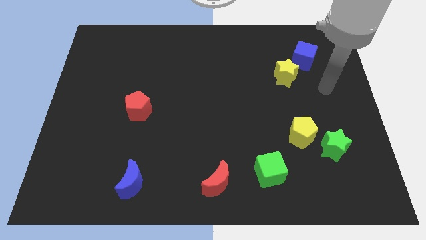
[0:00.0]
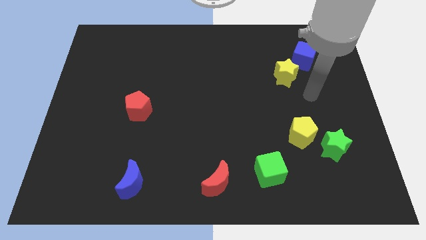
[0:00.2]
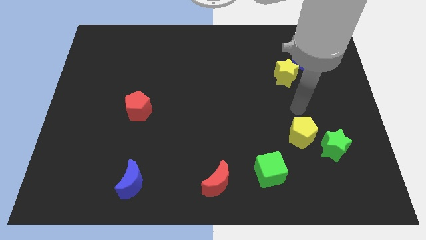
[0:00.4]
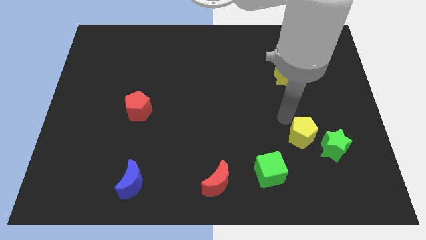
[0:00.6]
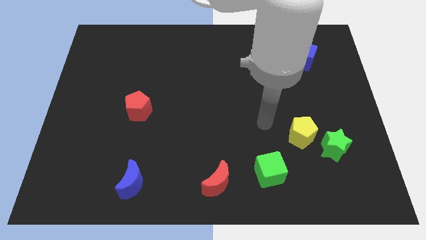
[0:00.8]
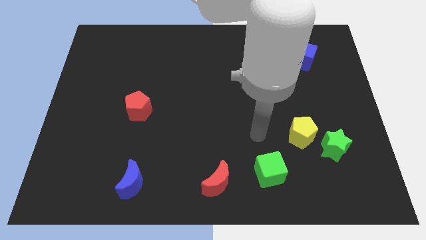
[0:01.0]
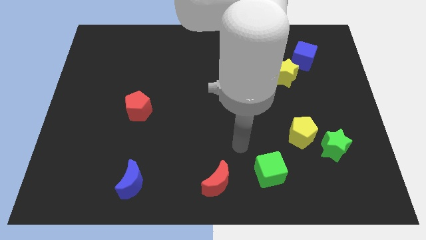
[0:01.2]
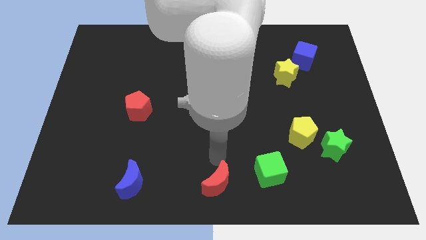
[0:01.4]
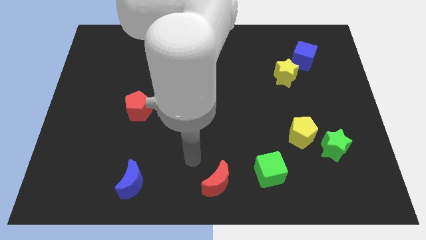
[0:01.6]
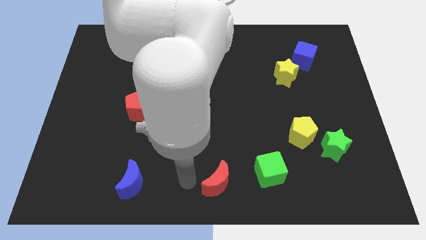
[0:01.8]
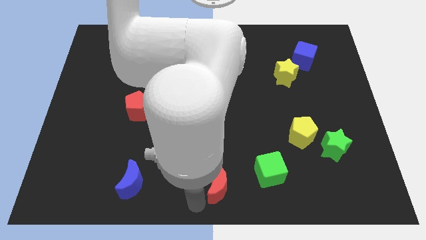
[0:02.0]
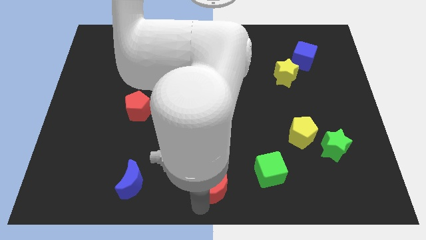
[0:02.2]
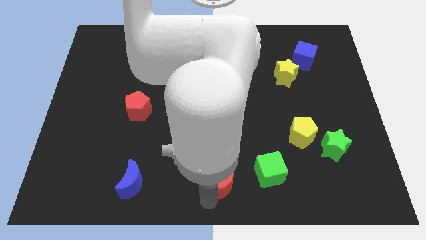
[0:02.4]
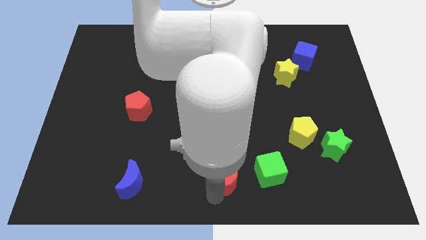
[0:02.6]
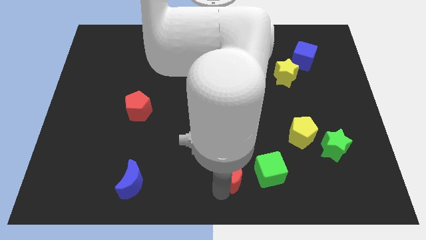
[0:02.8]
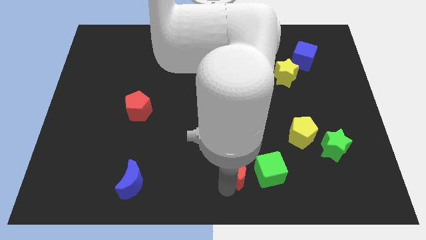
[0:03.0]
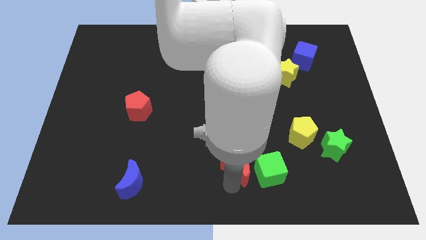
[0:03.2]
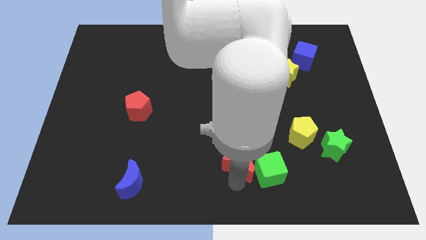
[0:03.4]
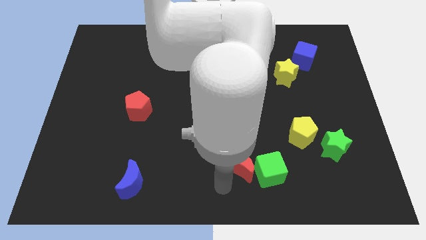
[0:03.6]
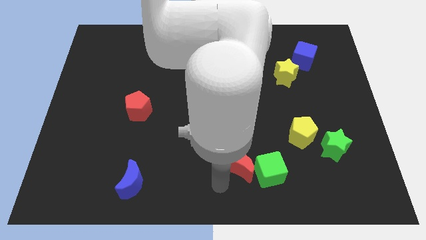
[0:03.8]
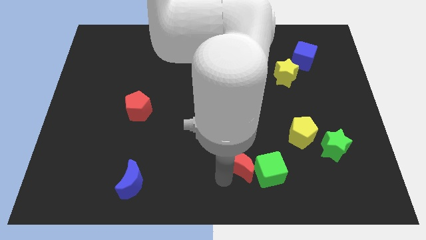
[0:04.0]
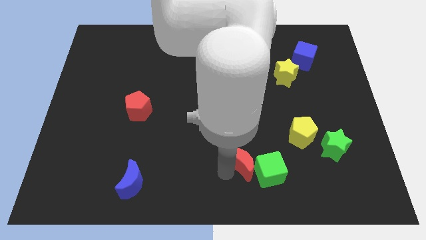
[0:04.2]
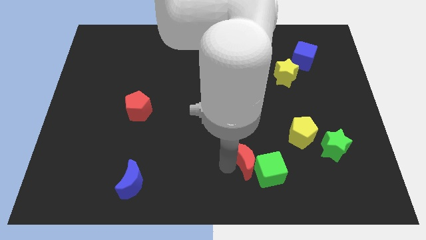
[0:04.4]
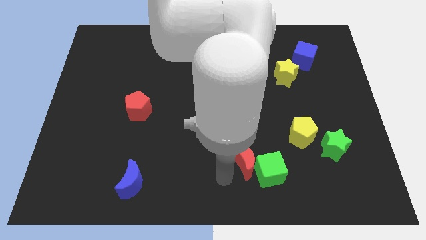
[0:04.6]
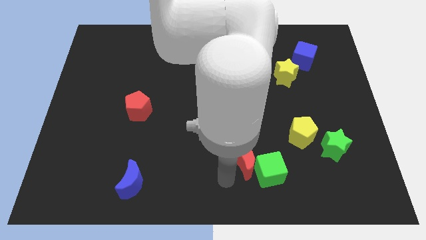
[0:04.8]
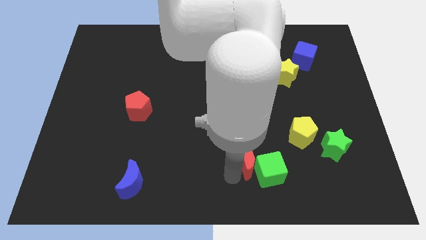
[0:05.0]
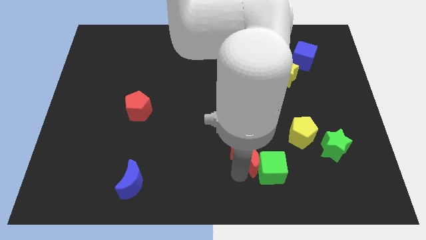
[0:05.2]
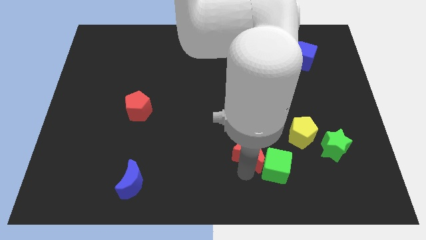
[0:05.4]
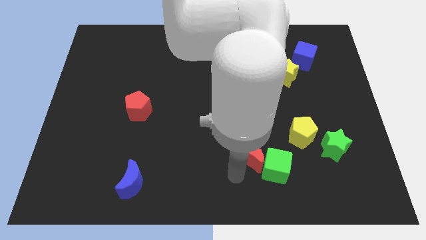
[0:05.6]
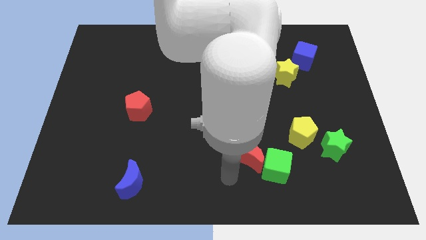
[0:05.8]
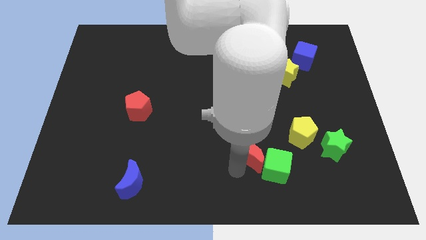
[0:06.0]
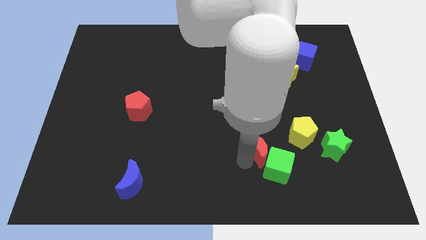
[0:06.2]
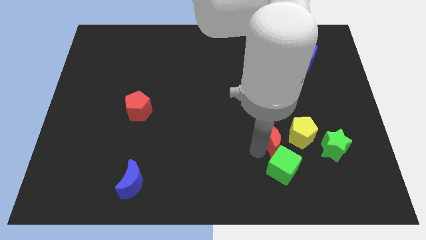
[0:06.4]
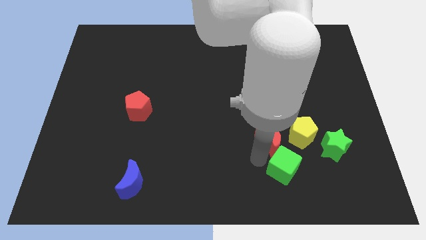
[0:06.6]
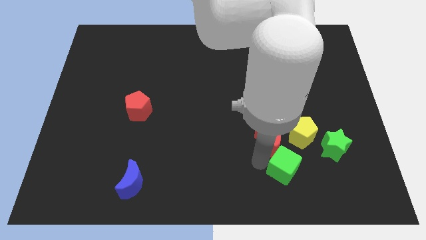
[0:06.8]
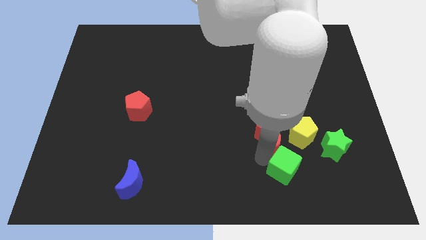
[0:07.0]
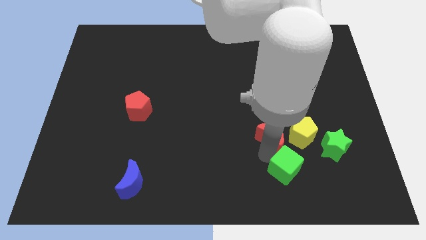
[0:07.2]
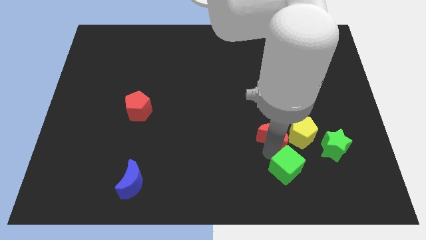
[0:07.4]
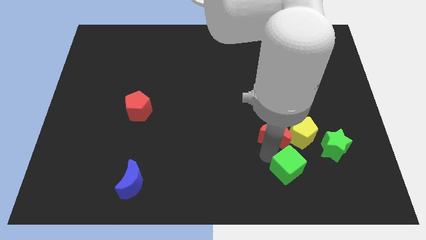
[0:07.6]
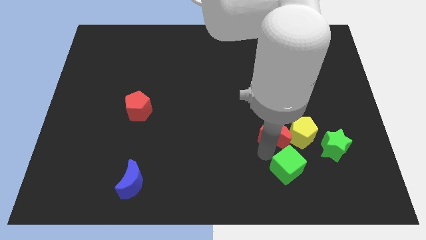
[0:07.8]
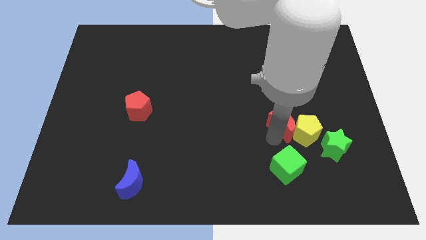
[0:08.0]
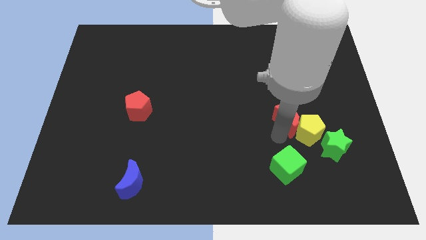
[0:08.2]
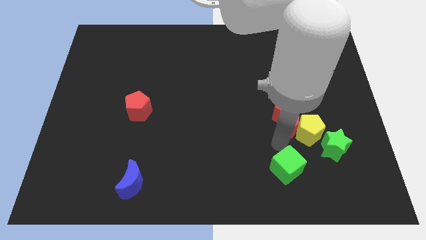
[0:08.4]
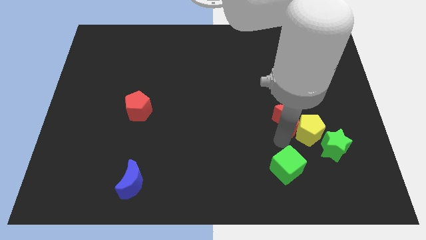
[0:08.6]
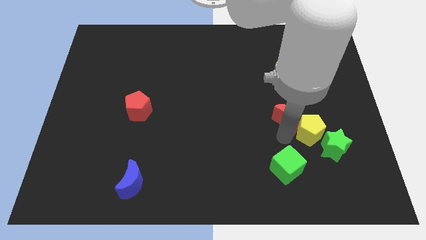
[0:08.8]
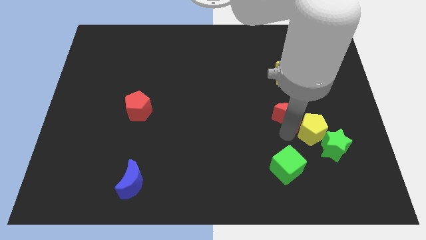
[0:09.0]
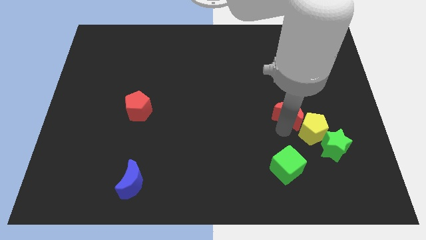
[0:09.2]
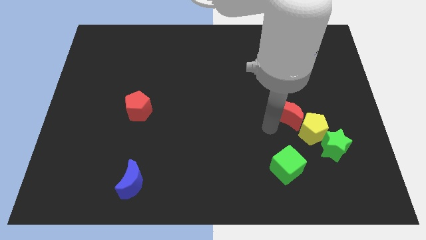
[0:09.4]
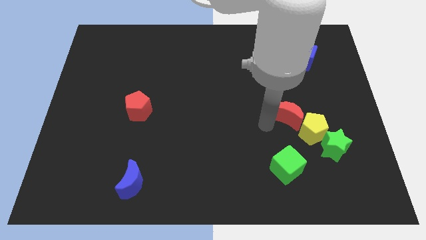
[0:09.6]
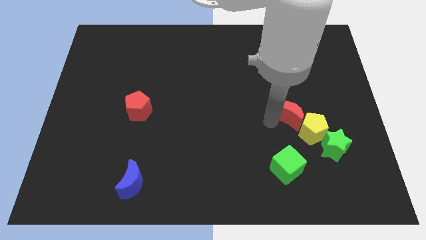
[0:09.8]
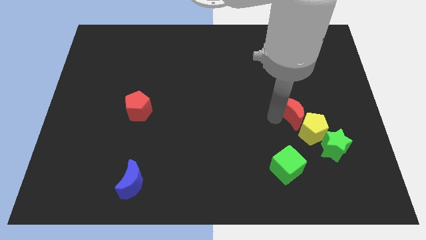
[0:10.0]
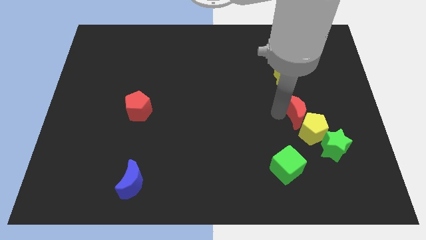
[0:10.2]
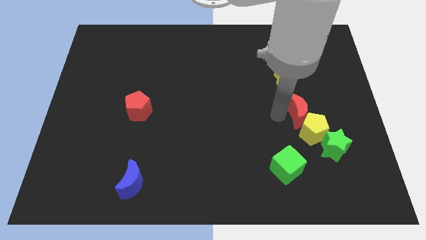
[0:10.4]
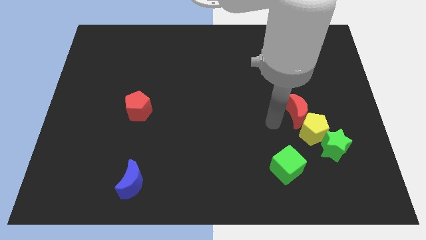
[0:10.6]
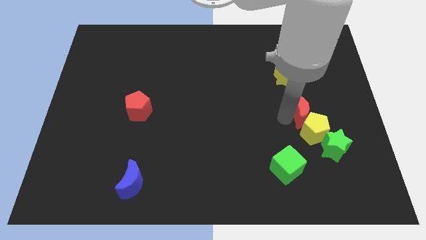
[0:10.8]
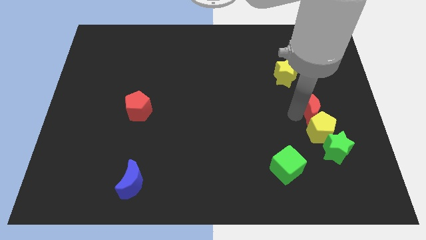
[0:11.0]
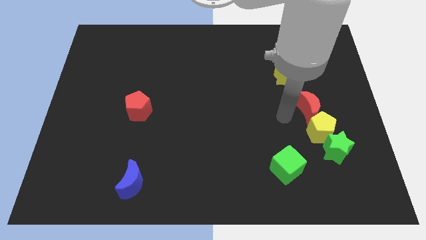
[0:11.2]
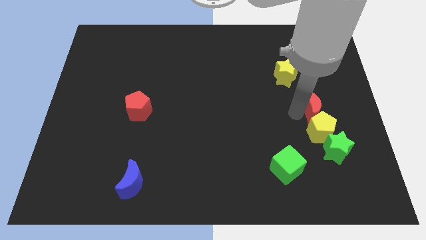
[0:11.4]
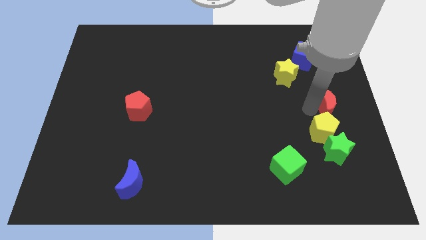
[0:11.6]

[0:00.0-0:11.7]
slide the red moon to the right side of the board

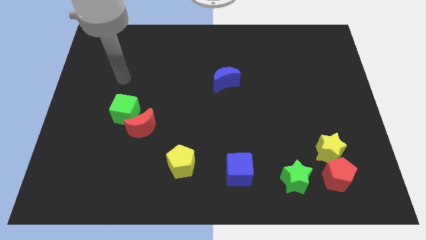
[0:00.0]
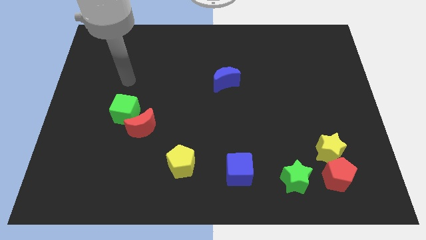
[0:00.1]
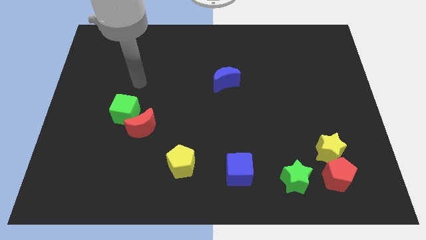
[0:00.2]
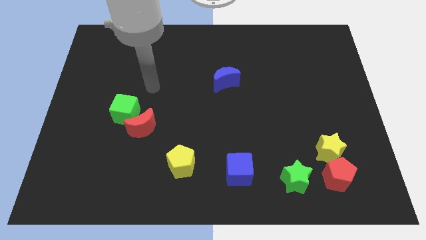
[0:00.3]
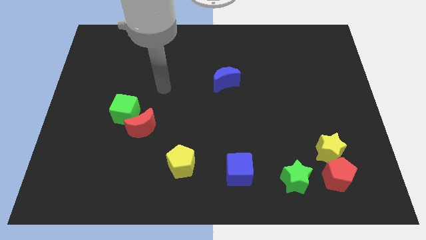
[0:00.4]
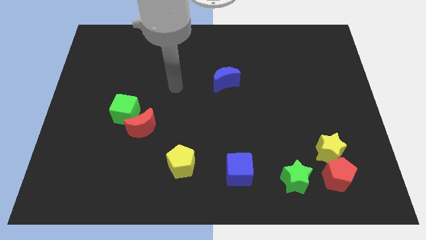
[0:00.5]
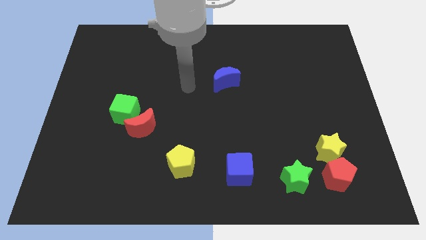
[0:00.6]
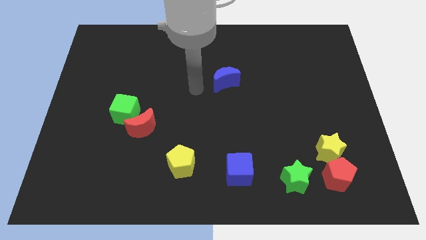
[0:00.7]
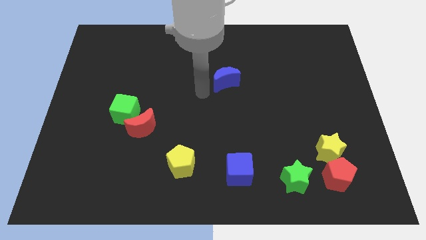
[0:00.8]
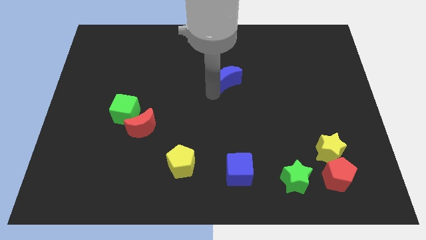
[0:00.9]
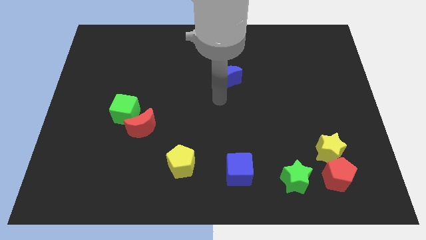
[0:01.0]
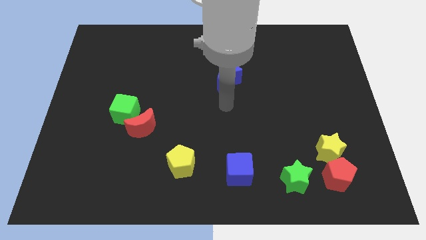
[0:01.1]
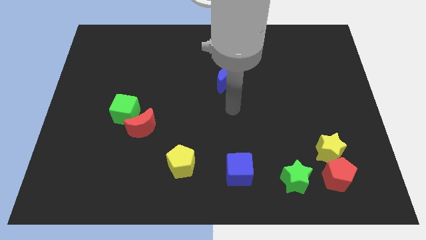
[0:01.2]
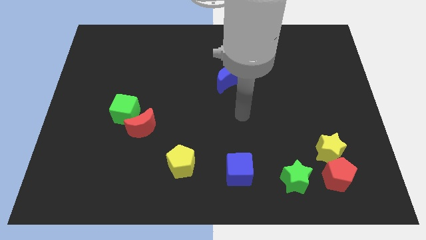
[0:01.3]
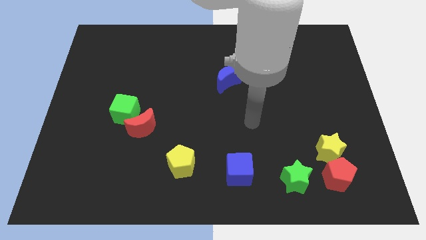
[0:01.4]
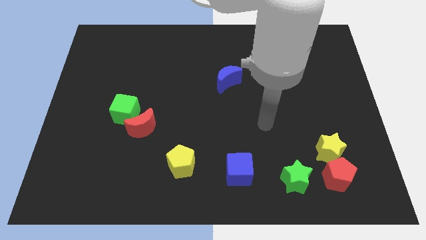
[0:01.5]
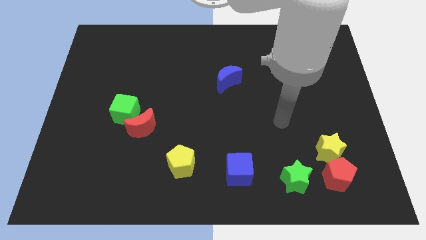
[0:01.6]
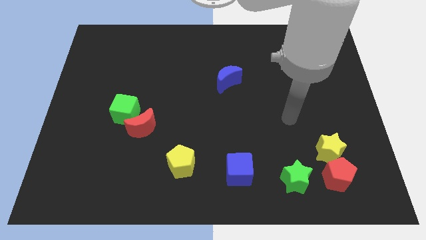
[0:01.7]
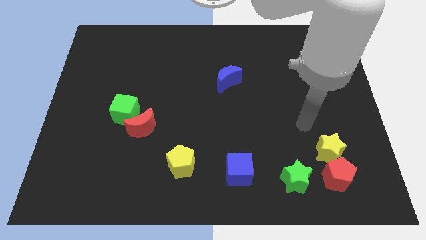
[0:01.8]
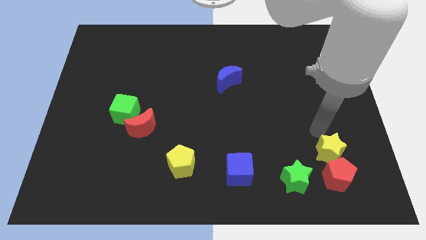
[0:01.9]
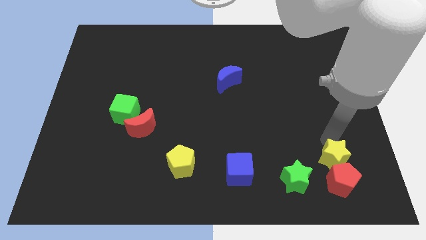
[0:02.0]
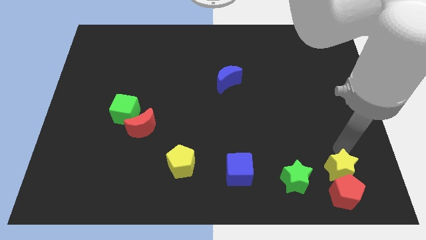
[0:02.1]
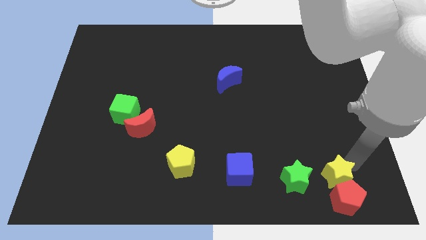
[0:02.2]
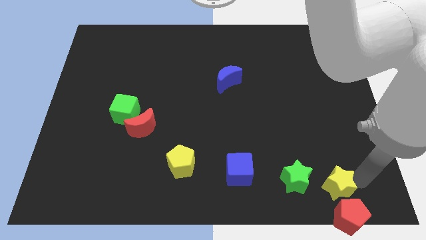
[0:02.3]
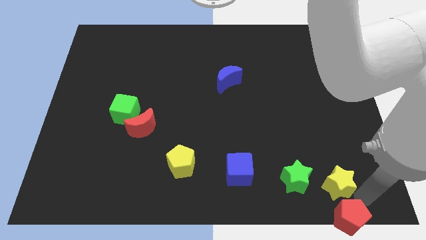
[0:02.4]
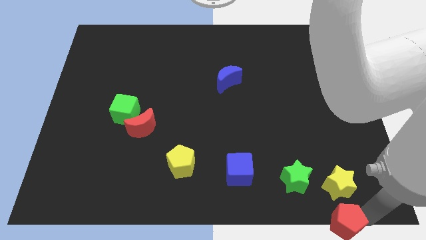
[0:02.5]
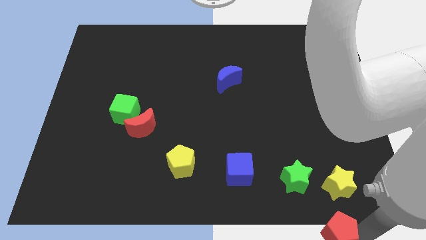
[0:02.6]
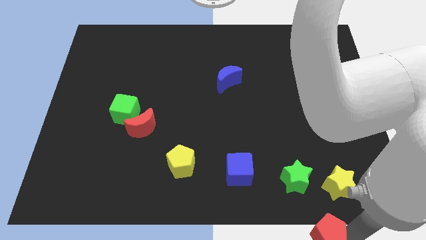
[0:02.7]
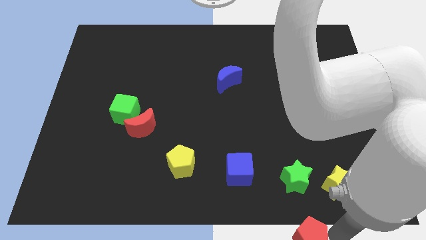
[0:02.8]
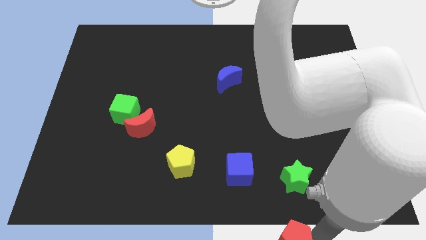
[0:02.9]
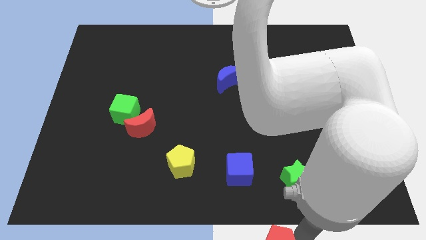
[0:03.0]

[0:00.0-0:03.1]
push the red pentagon to the bottom side
